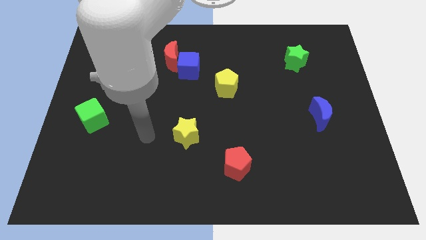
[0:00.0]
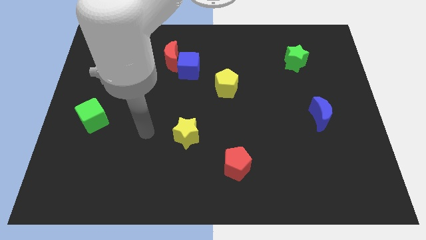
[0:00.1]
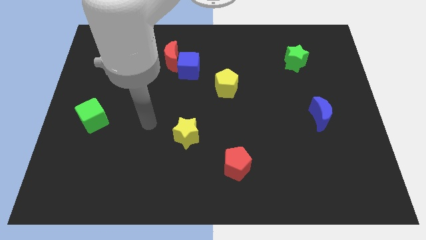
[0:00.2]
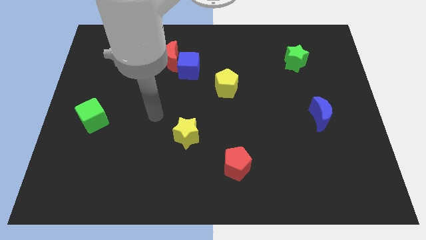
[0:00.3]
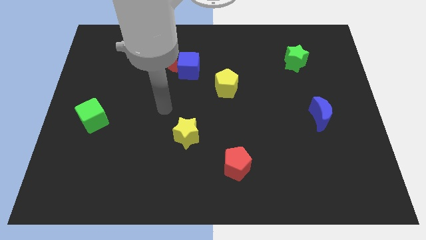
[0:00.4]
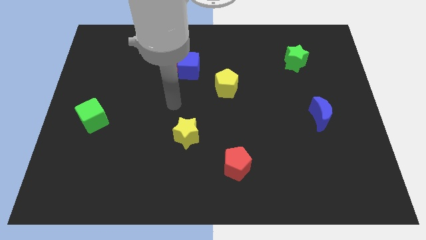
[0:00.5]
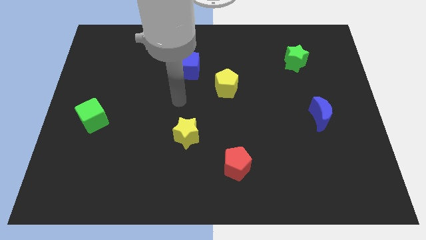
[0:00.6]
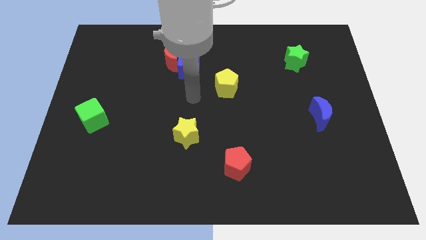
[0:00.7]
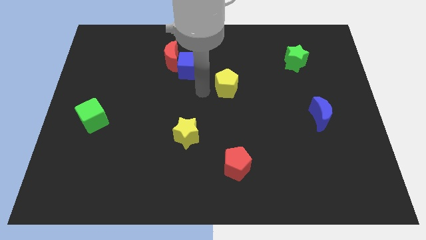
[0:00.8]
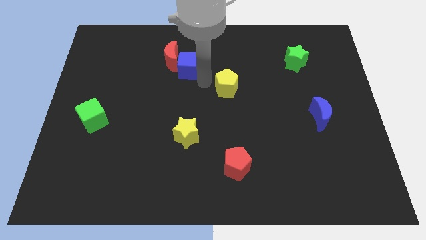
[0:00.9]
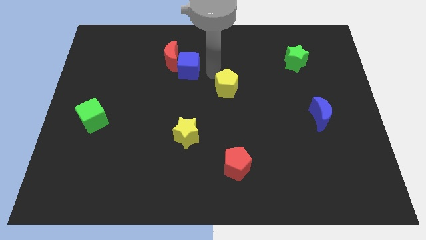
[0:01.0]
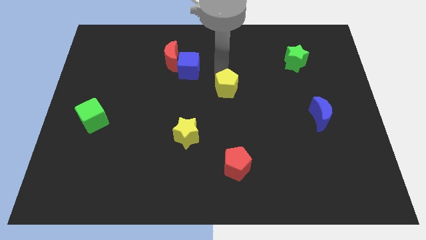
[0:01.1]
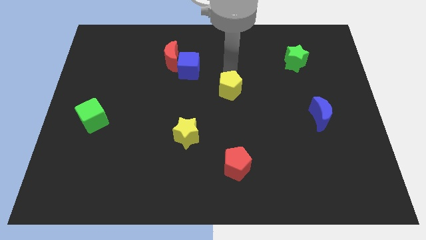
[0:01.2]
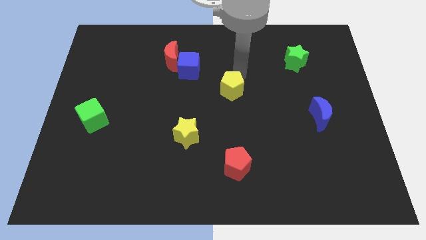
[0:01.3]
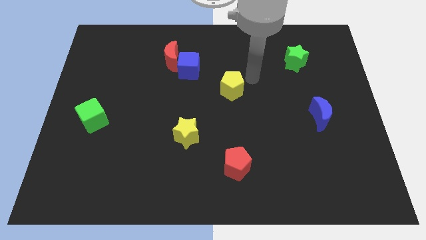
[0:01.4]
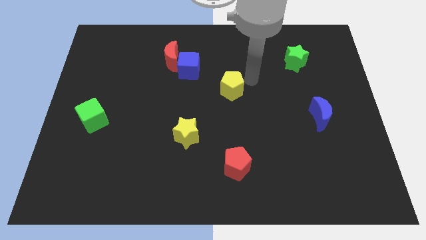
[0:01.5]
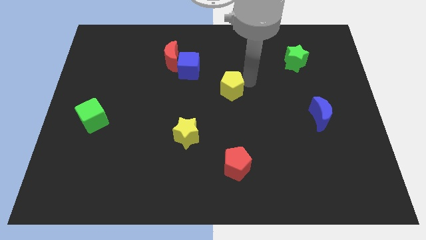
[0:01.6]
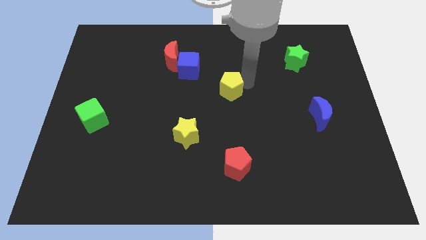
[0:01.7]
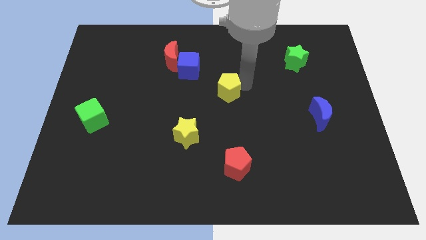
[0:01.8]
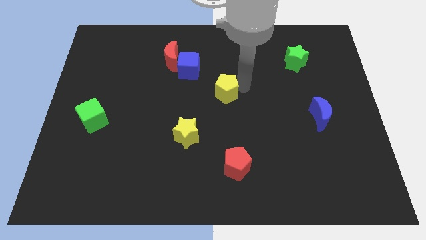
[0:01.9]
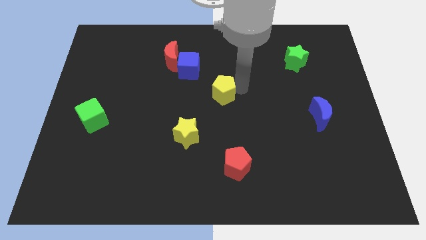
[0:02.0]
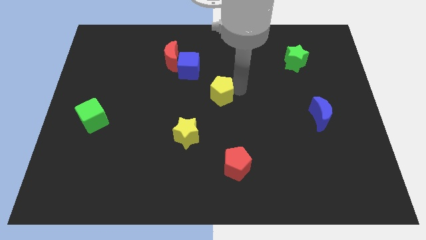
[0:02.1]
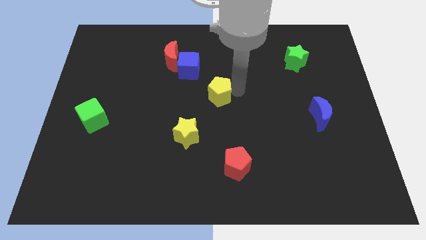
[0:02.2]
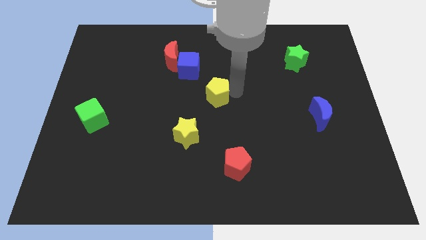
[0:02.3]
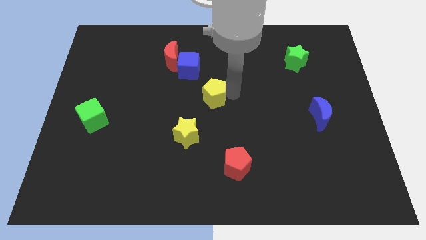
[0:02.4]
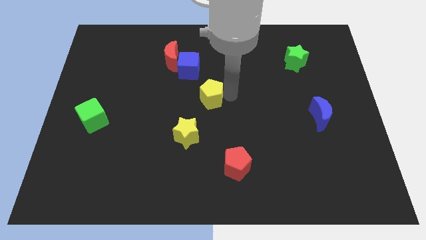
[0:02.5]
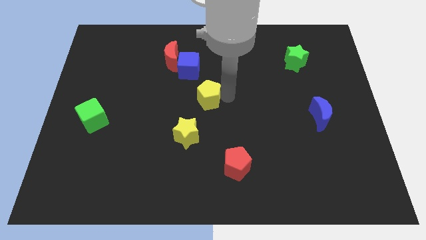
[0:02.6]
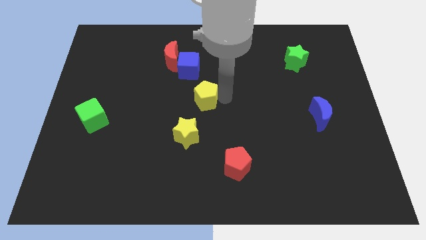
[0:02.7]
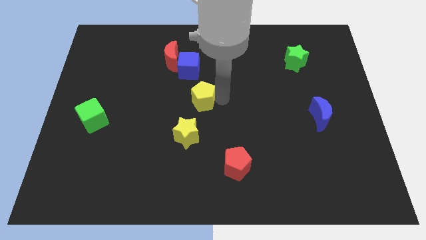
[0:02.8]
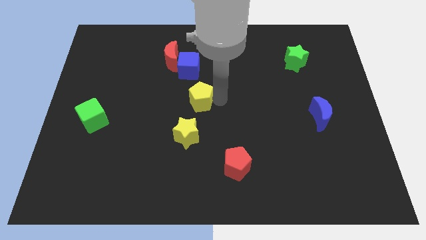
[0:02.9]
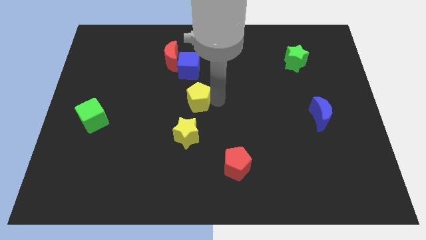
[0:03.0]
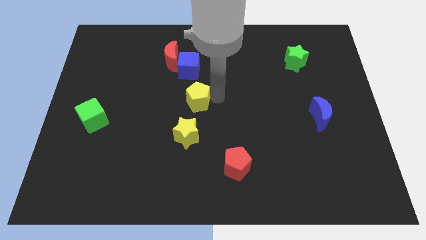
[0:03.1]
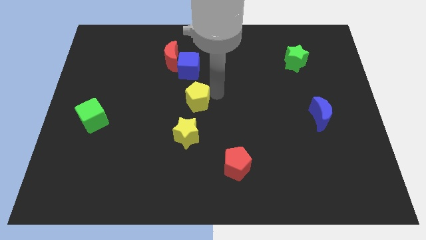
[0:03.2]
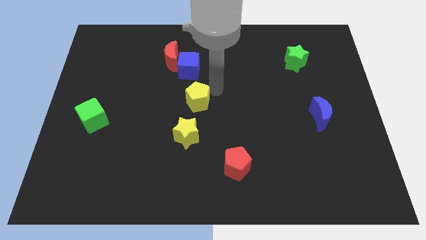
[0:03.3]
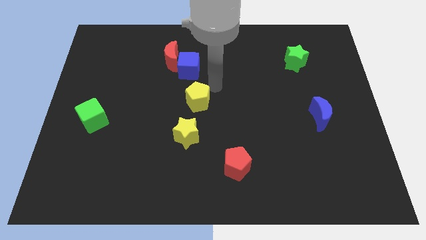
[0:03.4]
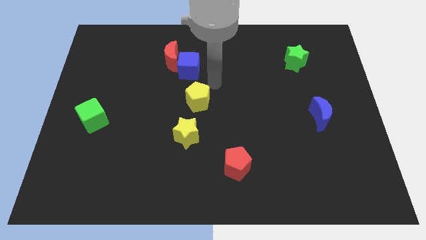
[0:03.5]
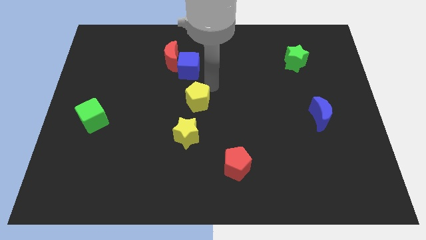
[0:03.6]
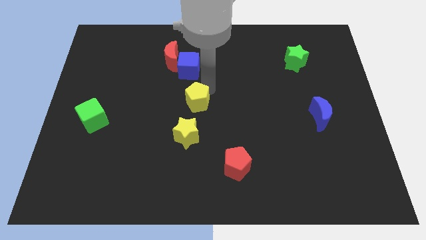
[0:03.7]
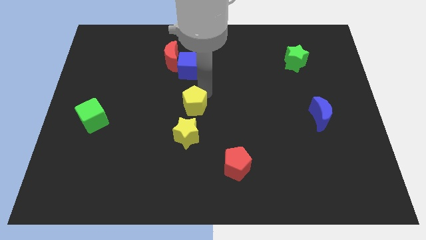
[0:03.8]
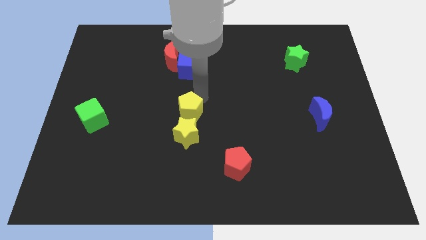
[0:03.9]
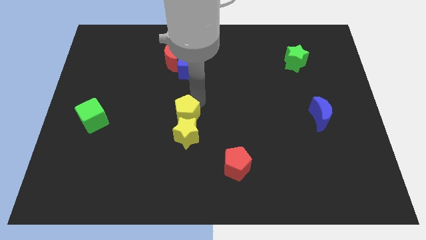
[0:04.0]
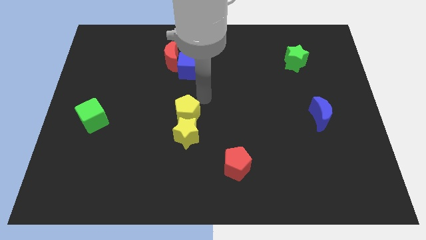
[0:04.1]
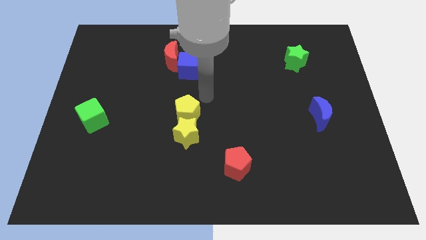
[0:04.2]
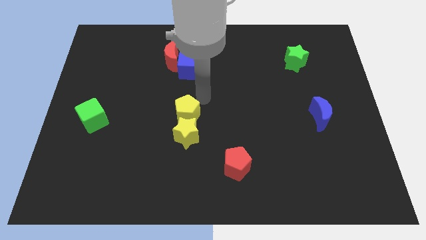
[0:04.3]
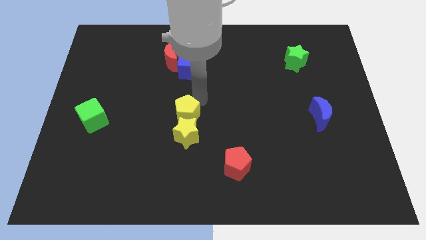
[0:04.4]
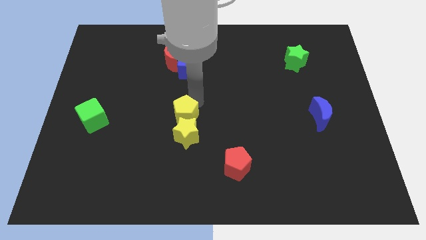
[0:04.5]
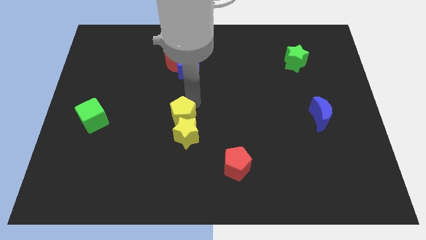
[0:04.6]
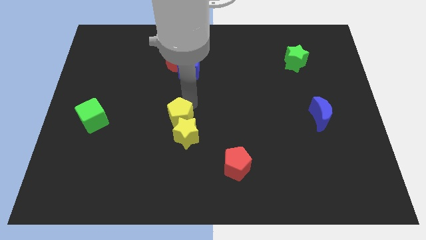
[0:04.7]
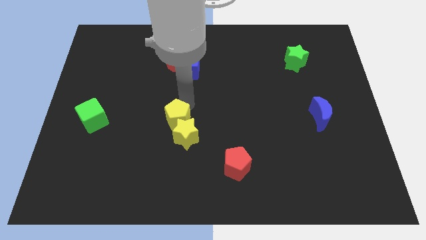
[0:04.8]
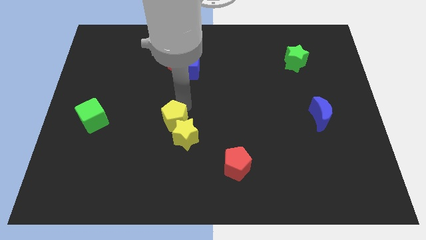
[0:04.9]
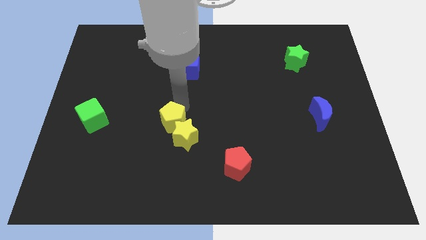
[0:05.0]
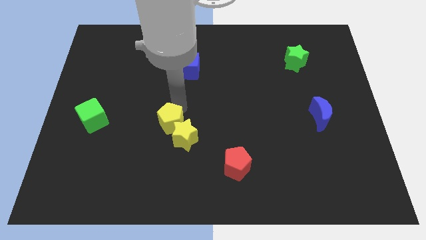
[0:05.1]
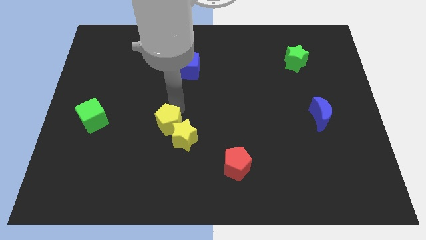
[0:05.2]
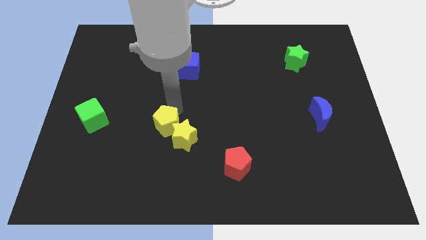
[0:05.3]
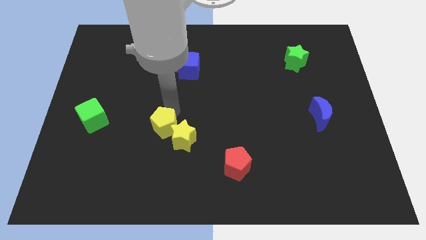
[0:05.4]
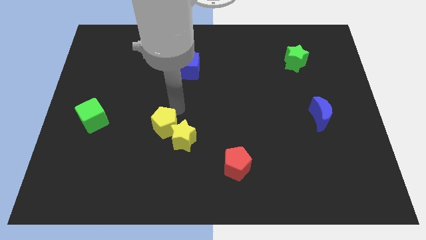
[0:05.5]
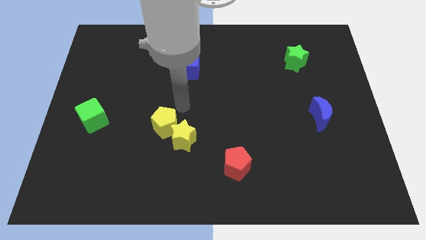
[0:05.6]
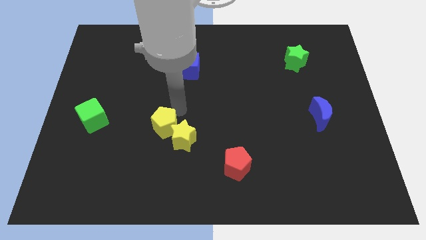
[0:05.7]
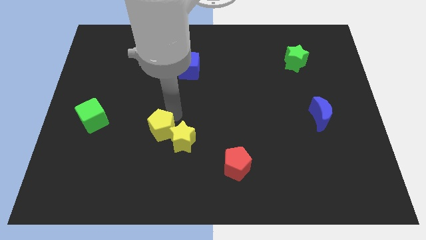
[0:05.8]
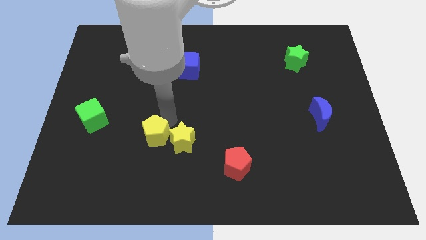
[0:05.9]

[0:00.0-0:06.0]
slide the yellow pentagon diagonally downwards and left

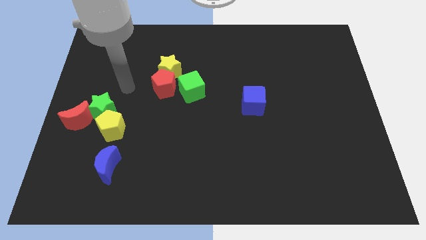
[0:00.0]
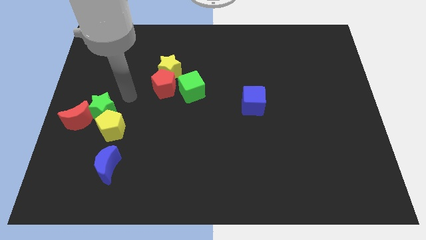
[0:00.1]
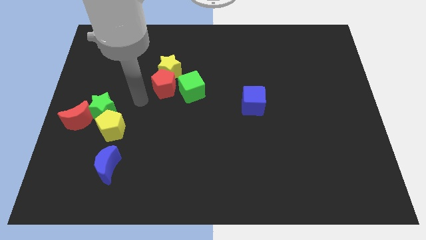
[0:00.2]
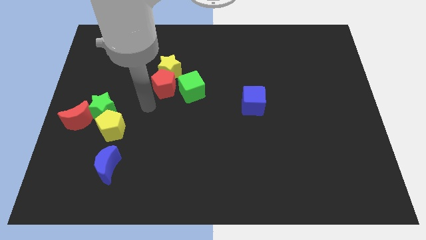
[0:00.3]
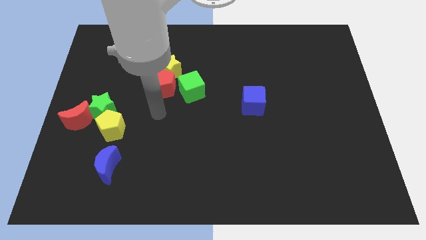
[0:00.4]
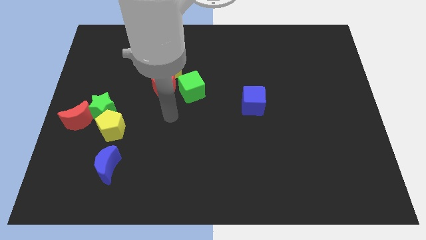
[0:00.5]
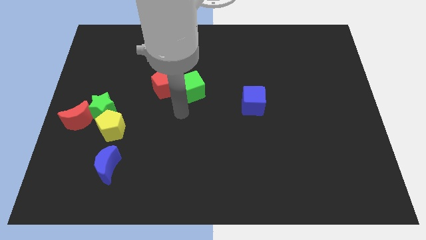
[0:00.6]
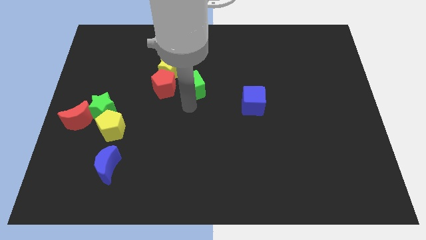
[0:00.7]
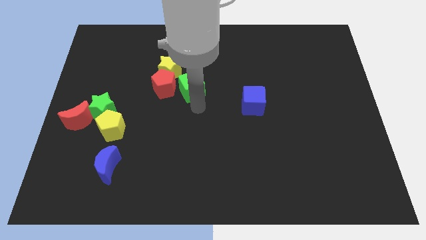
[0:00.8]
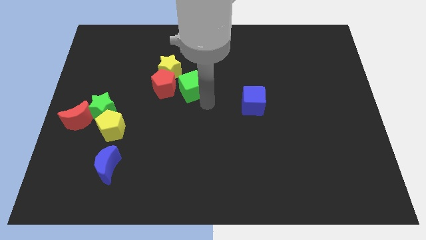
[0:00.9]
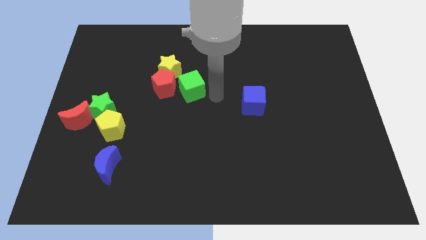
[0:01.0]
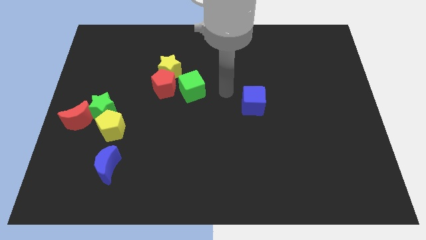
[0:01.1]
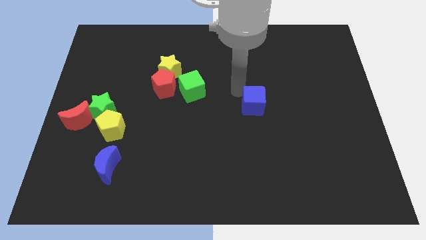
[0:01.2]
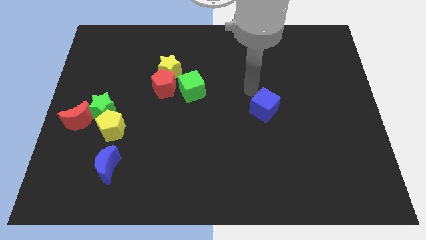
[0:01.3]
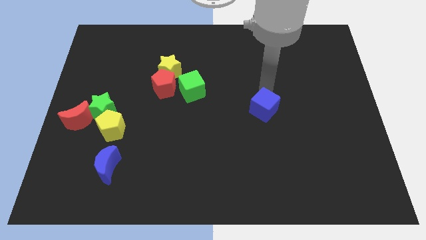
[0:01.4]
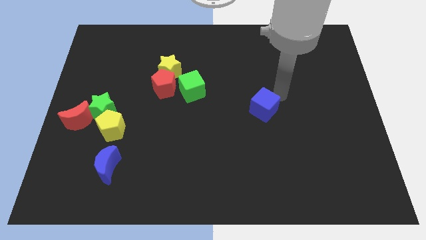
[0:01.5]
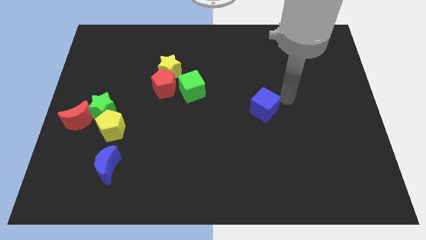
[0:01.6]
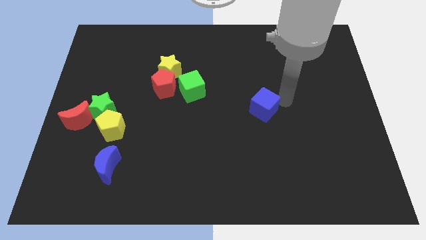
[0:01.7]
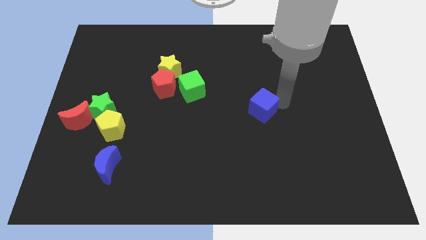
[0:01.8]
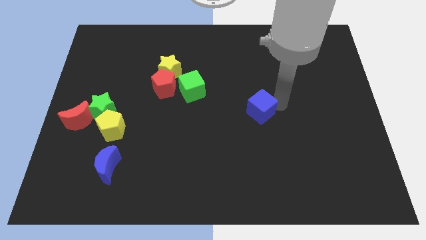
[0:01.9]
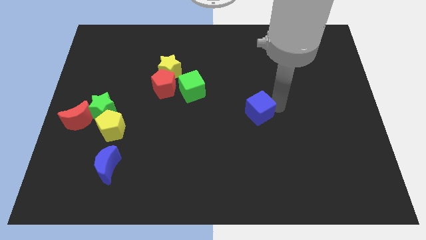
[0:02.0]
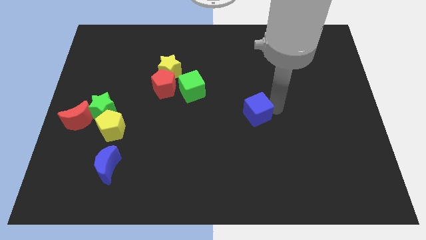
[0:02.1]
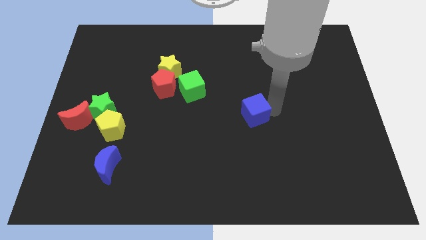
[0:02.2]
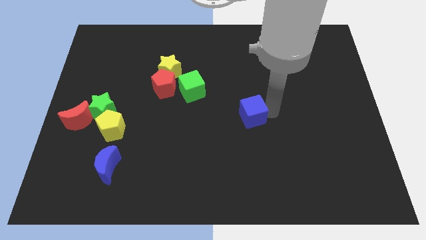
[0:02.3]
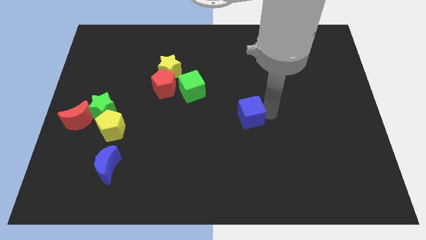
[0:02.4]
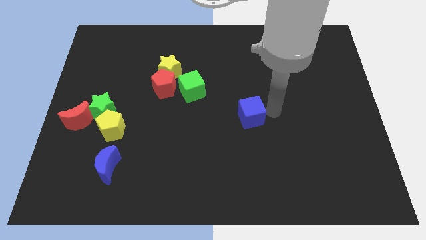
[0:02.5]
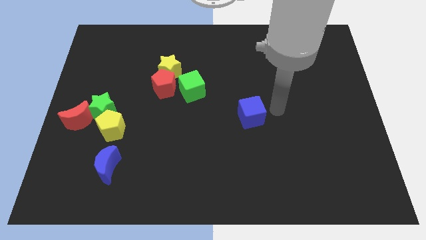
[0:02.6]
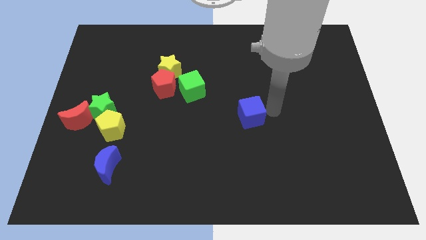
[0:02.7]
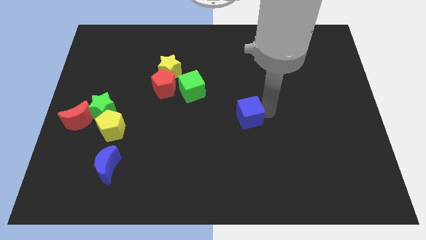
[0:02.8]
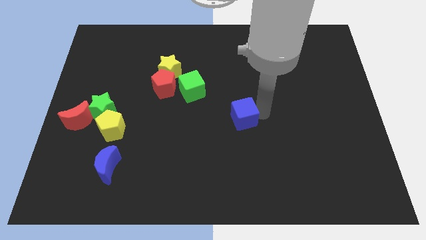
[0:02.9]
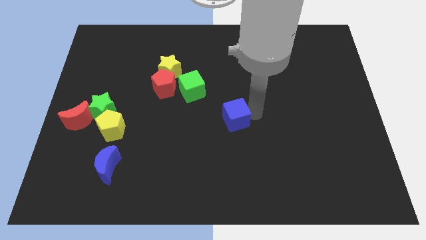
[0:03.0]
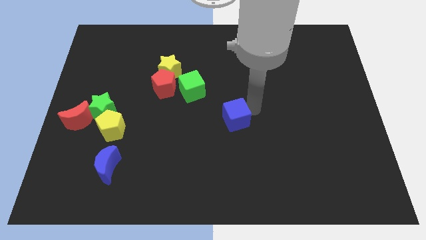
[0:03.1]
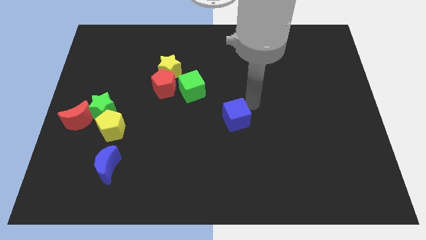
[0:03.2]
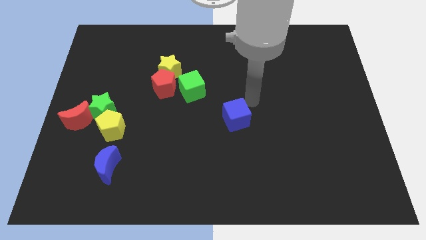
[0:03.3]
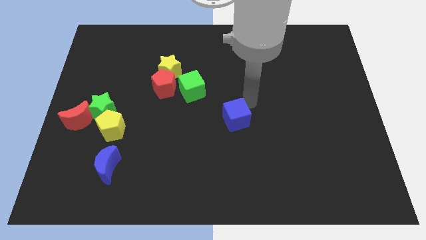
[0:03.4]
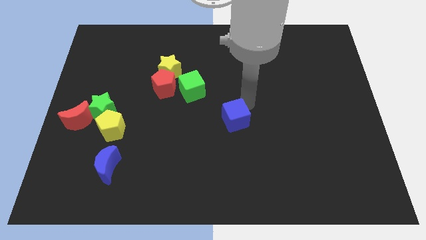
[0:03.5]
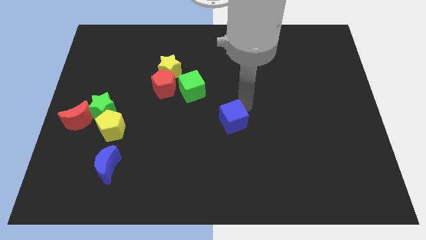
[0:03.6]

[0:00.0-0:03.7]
slightly slide the blue cube down and then left
